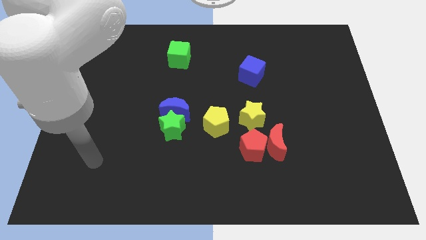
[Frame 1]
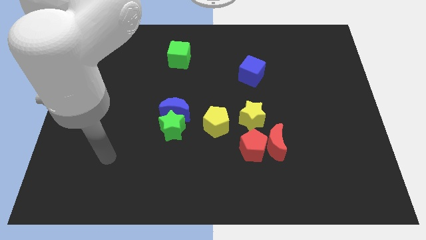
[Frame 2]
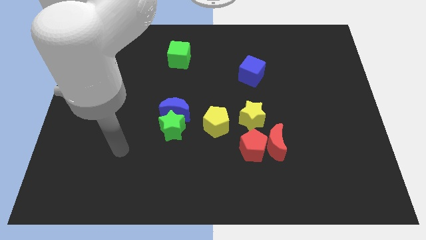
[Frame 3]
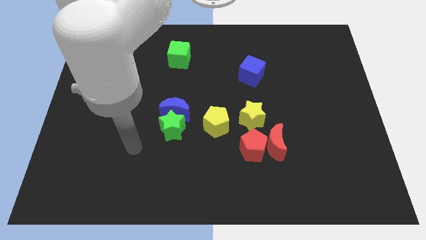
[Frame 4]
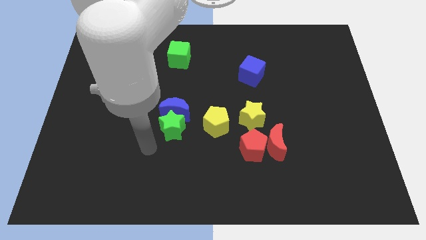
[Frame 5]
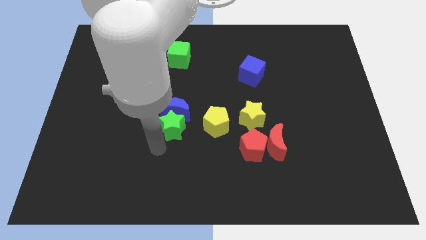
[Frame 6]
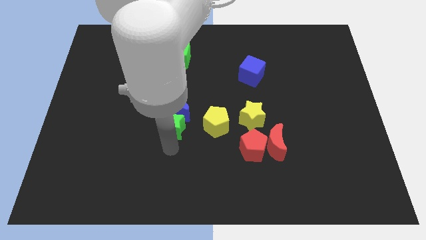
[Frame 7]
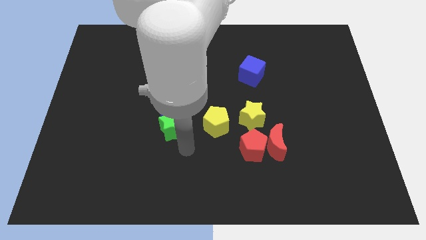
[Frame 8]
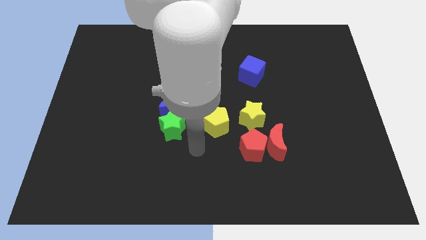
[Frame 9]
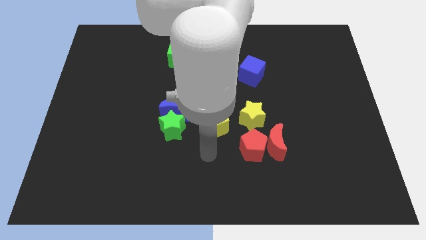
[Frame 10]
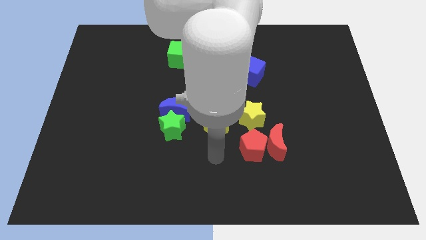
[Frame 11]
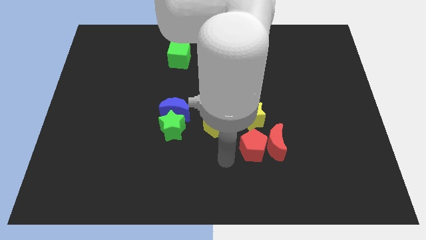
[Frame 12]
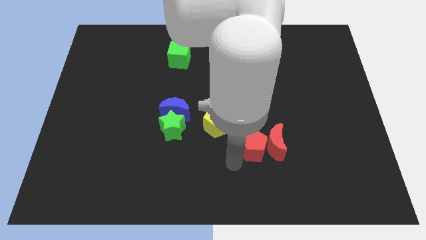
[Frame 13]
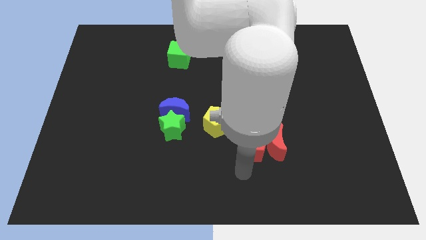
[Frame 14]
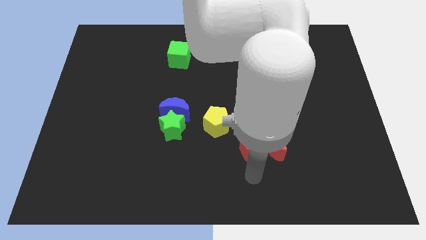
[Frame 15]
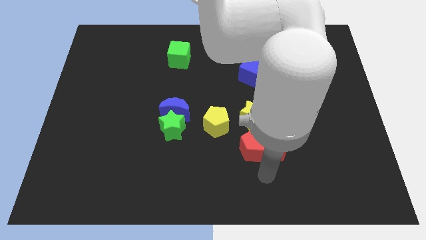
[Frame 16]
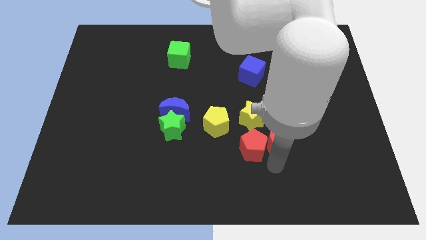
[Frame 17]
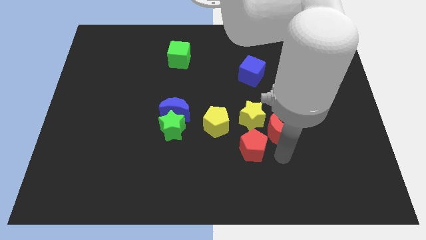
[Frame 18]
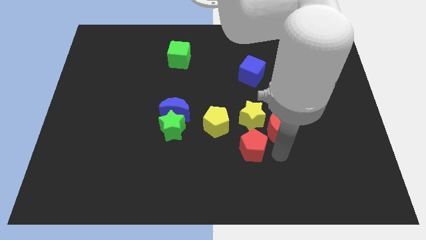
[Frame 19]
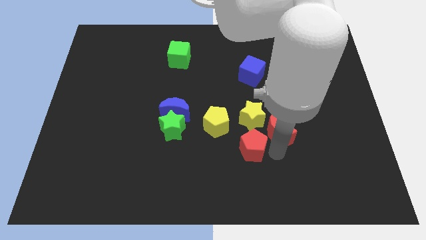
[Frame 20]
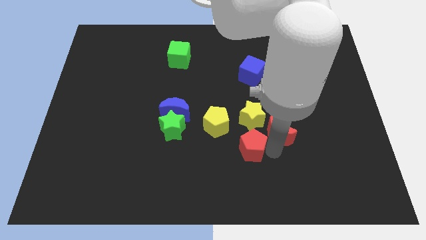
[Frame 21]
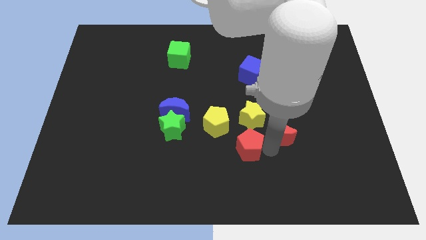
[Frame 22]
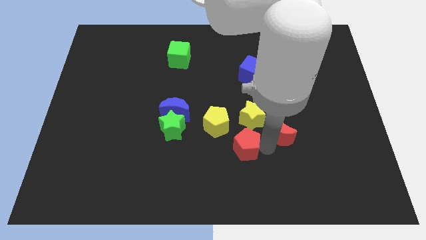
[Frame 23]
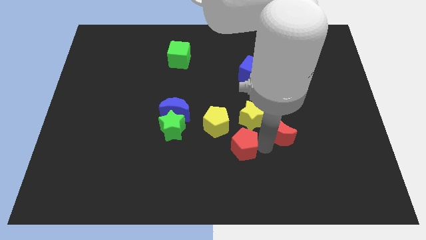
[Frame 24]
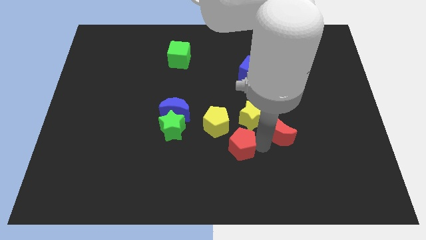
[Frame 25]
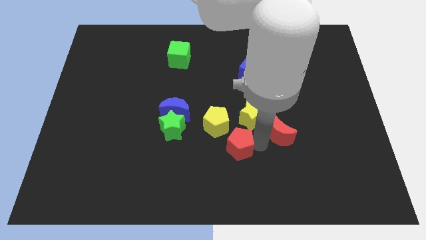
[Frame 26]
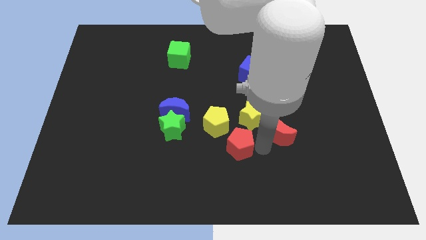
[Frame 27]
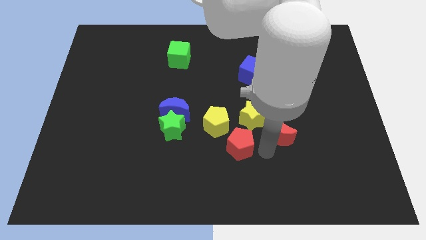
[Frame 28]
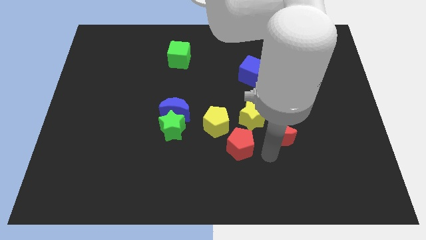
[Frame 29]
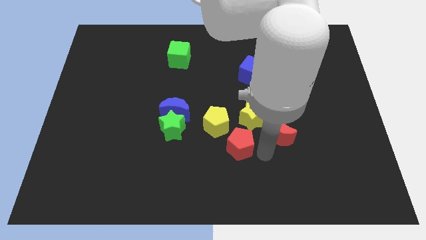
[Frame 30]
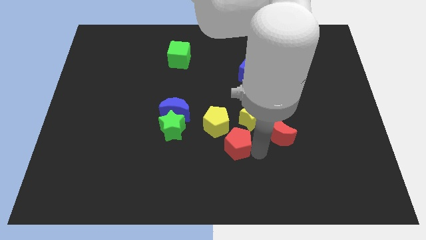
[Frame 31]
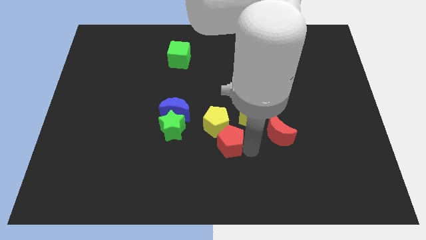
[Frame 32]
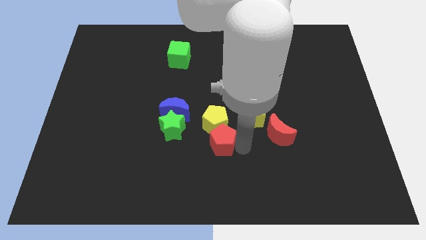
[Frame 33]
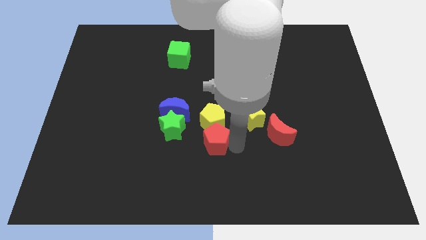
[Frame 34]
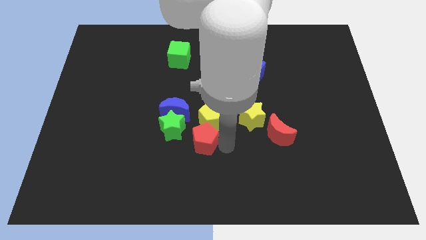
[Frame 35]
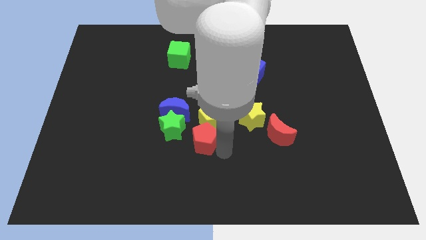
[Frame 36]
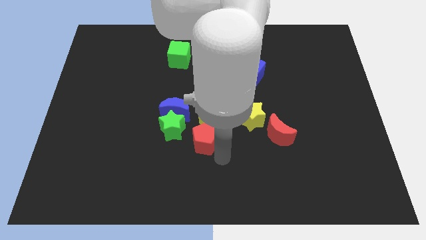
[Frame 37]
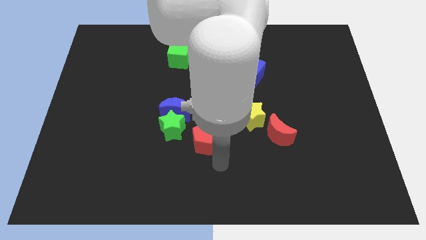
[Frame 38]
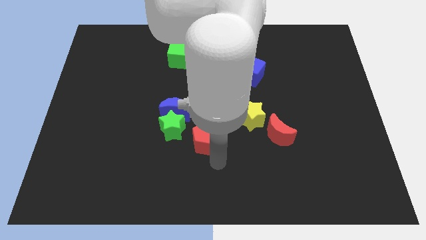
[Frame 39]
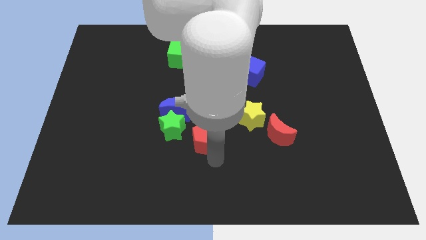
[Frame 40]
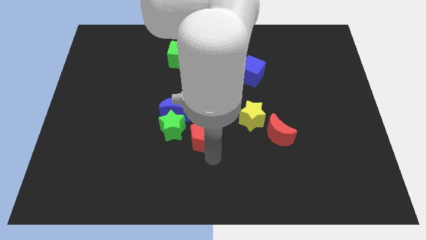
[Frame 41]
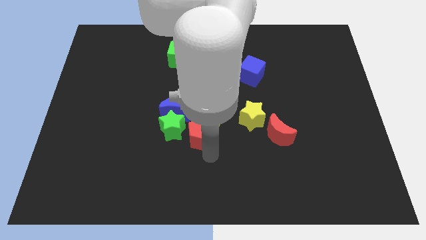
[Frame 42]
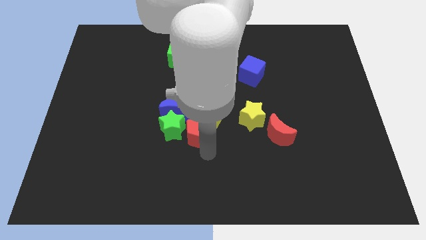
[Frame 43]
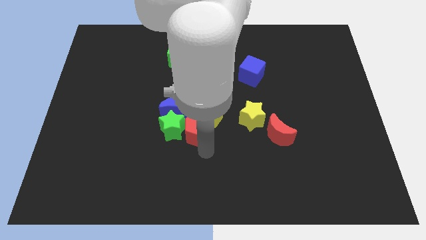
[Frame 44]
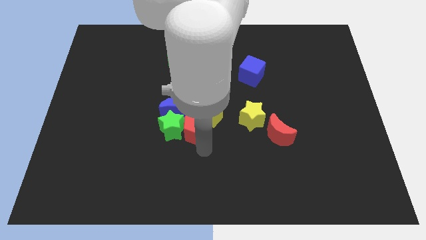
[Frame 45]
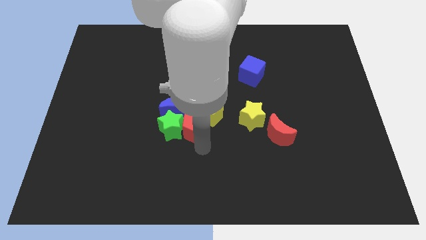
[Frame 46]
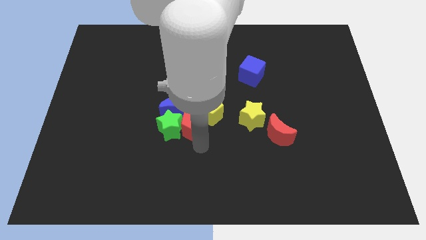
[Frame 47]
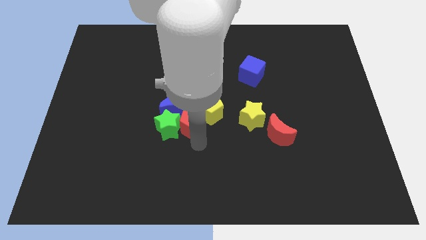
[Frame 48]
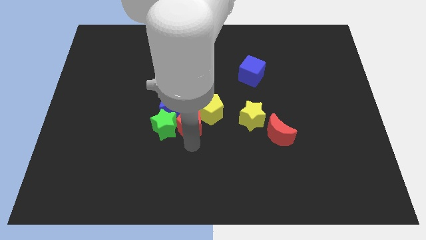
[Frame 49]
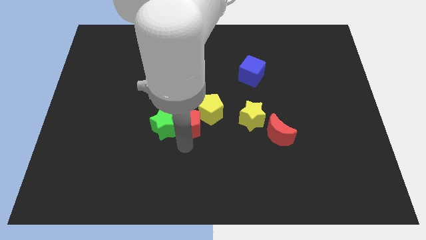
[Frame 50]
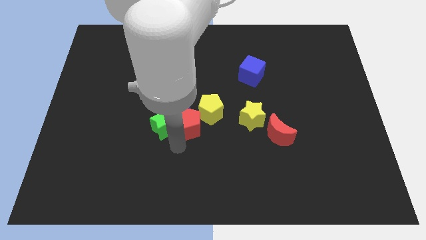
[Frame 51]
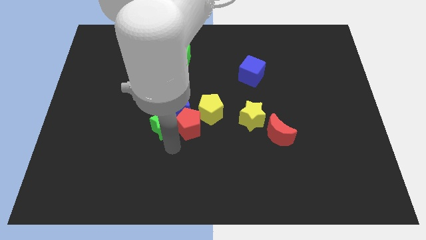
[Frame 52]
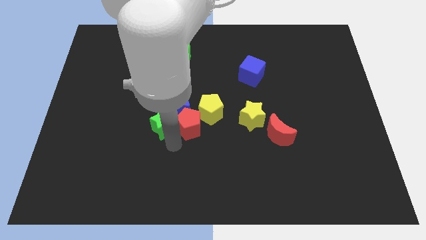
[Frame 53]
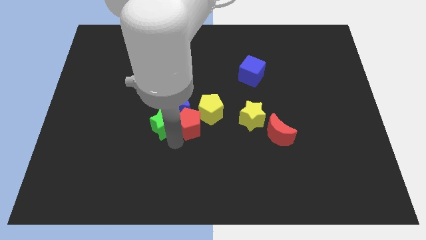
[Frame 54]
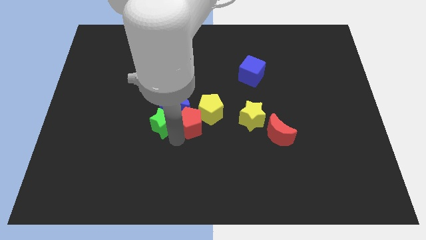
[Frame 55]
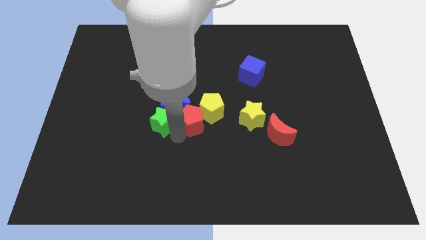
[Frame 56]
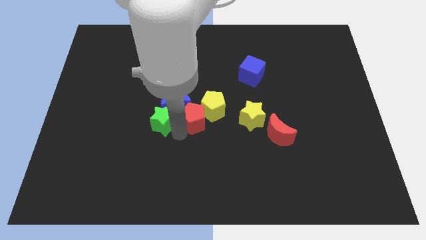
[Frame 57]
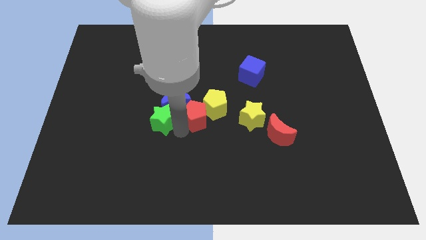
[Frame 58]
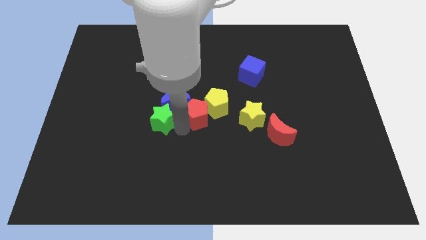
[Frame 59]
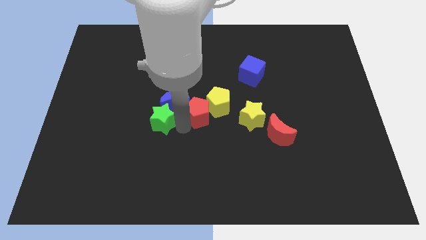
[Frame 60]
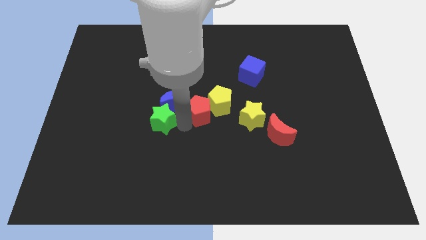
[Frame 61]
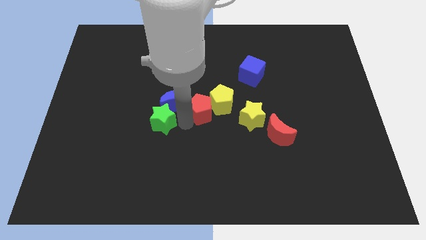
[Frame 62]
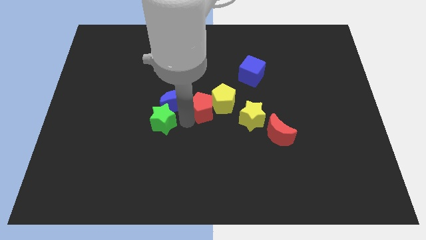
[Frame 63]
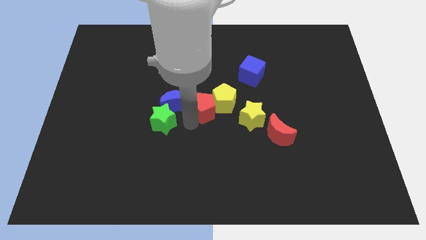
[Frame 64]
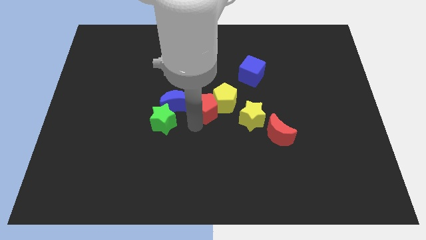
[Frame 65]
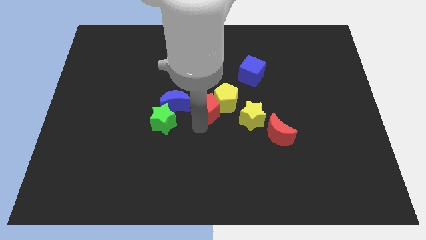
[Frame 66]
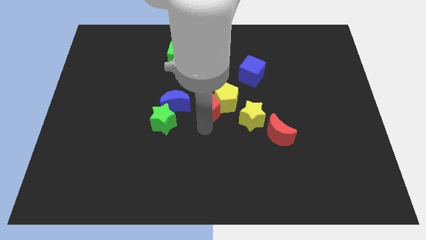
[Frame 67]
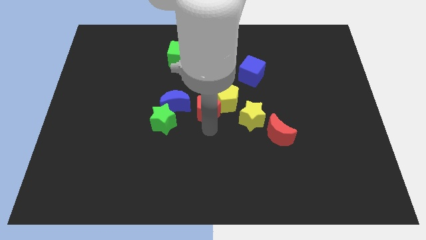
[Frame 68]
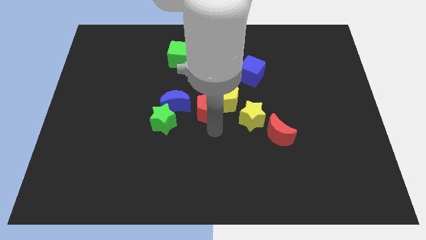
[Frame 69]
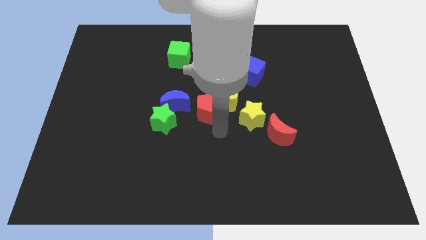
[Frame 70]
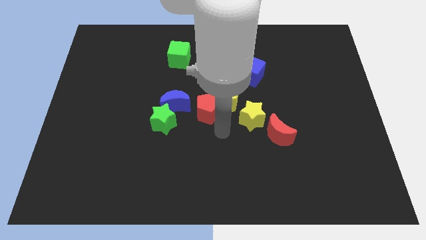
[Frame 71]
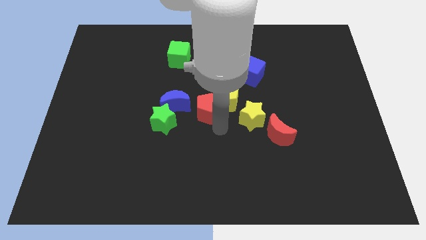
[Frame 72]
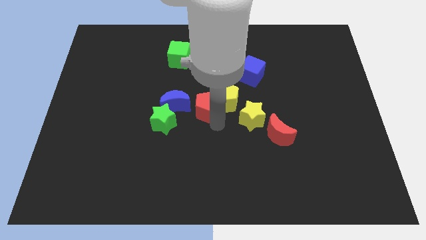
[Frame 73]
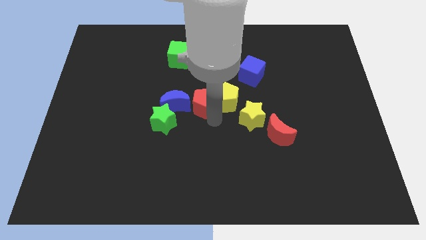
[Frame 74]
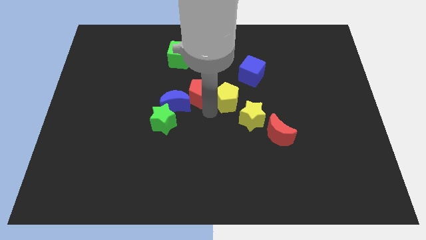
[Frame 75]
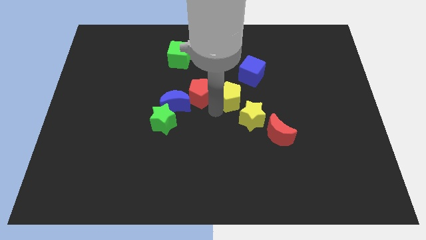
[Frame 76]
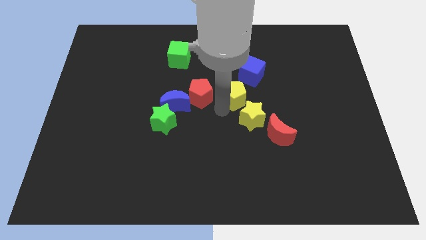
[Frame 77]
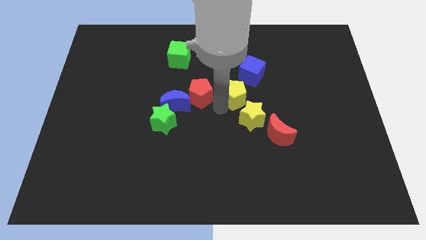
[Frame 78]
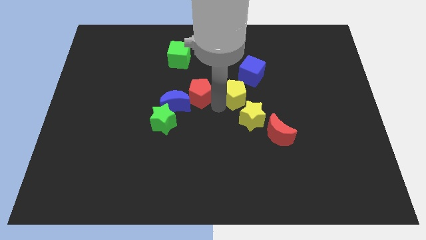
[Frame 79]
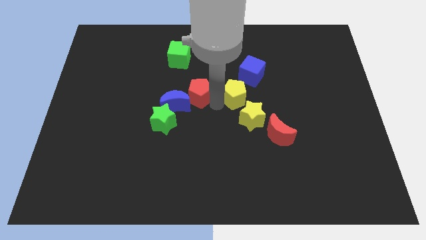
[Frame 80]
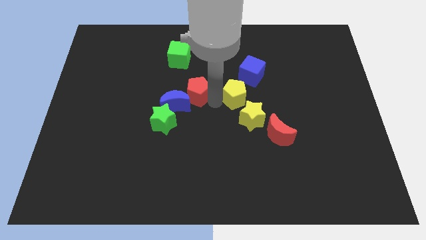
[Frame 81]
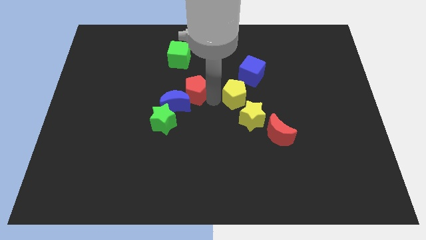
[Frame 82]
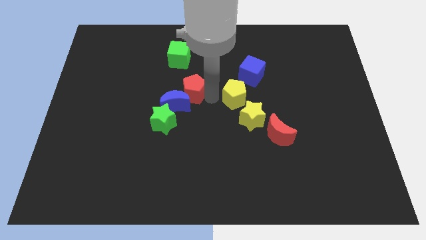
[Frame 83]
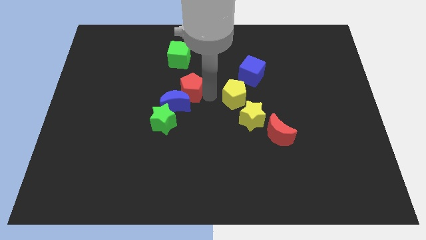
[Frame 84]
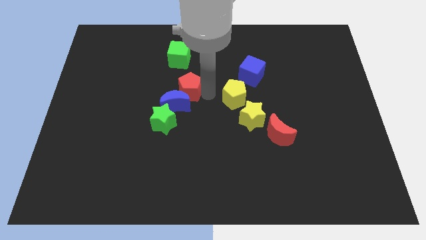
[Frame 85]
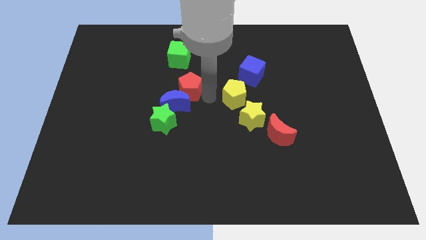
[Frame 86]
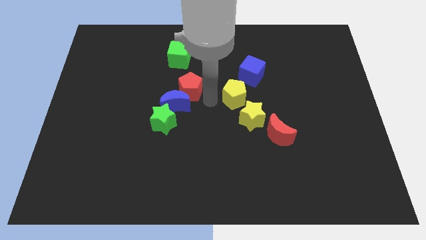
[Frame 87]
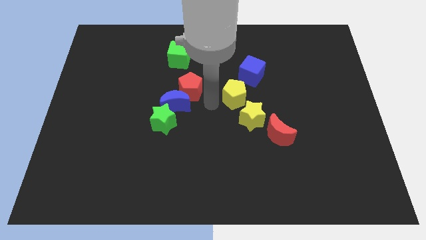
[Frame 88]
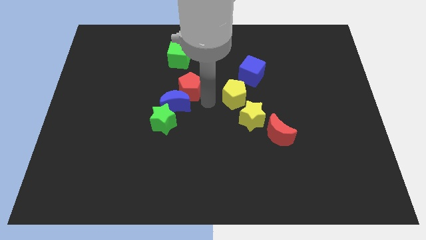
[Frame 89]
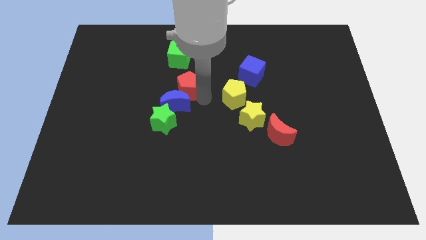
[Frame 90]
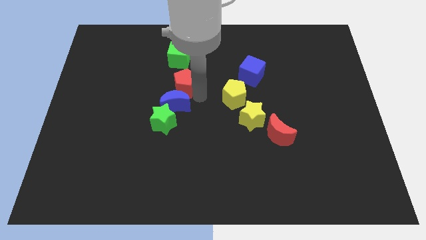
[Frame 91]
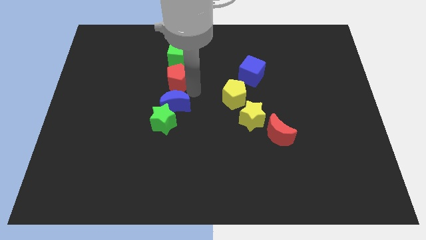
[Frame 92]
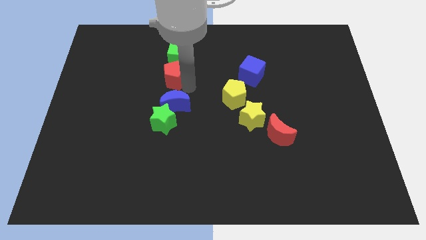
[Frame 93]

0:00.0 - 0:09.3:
slide the red pentagon to the bottom left of the green cube
